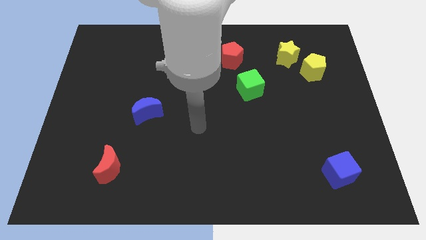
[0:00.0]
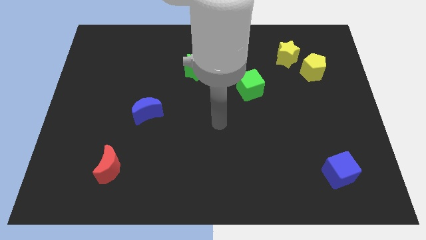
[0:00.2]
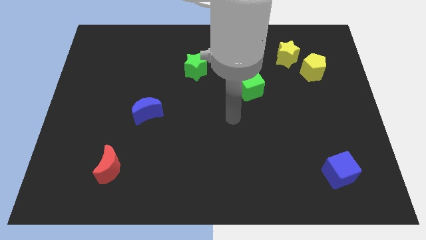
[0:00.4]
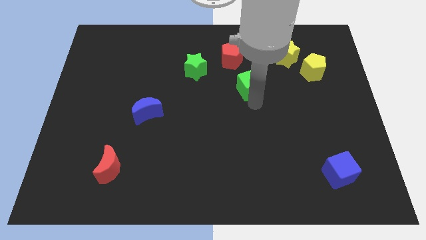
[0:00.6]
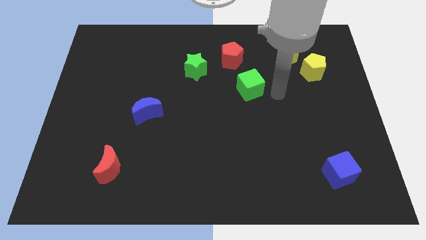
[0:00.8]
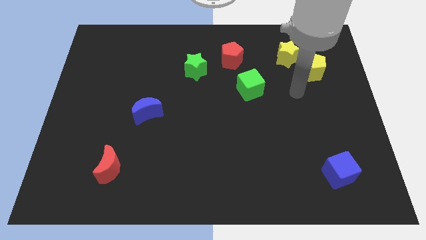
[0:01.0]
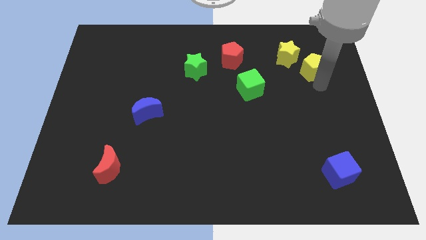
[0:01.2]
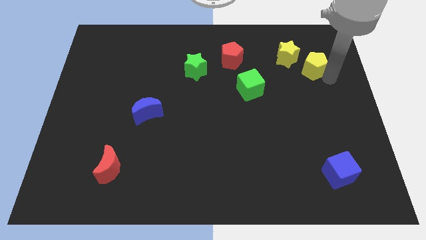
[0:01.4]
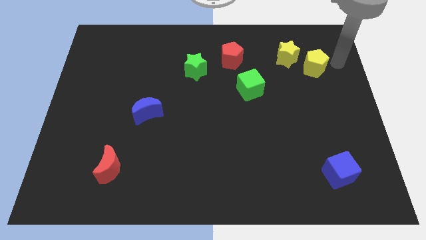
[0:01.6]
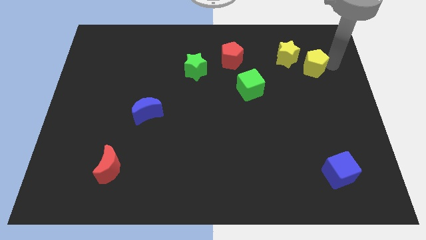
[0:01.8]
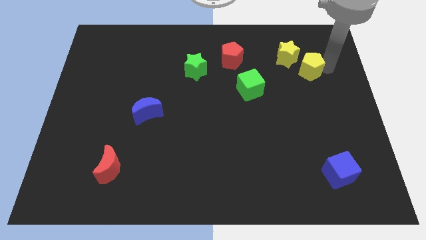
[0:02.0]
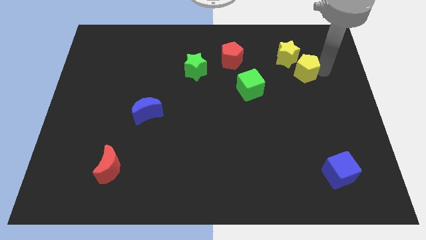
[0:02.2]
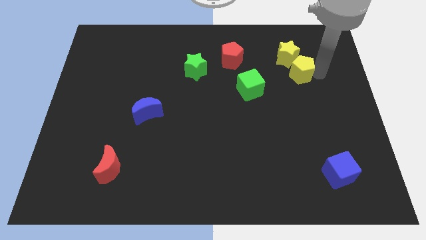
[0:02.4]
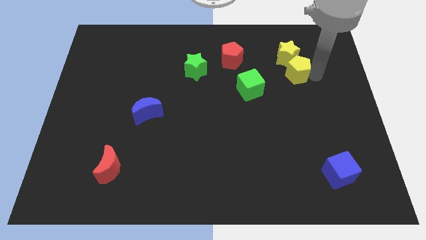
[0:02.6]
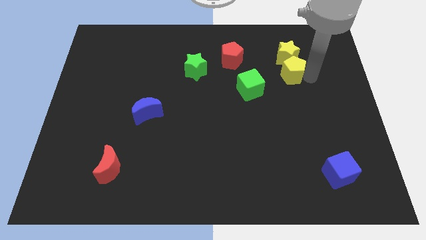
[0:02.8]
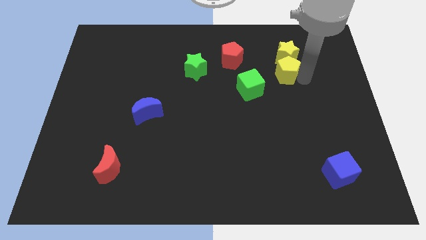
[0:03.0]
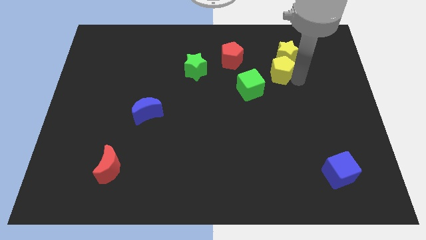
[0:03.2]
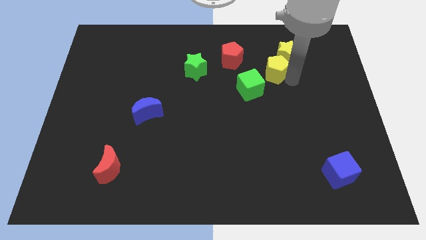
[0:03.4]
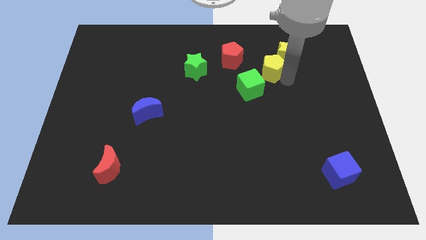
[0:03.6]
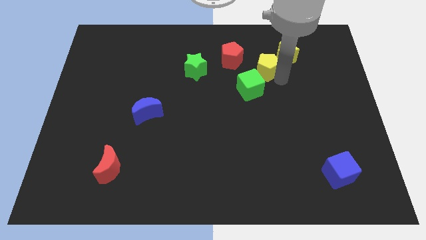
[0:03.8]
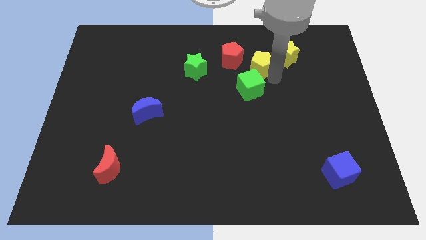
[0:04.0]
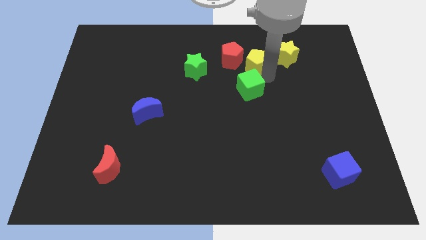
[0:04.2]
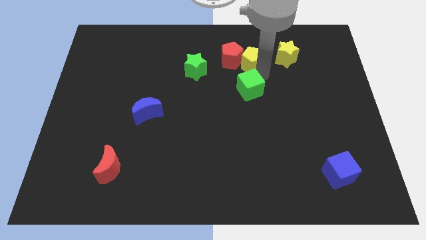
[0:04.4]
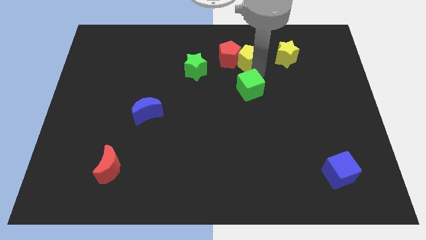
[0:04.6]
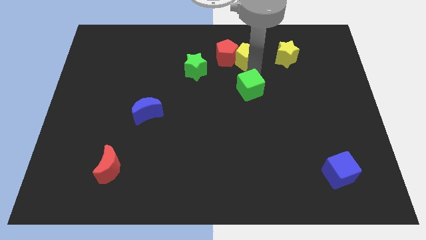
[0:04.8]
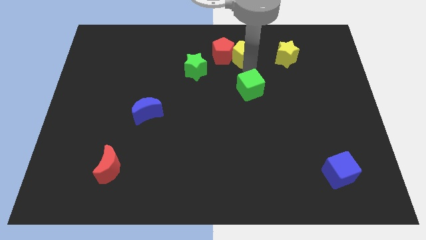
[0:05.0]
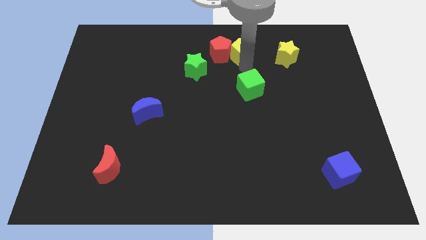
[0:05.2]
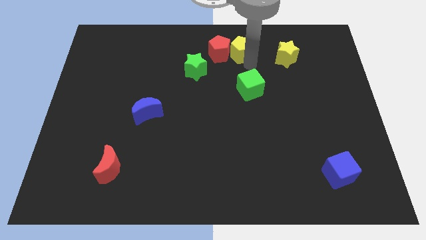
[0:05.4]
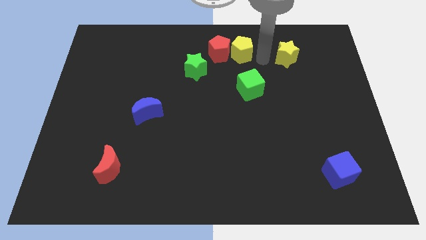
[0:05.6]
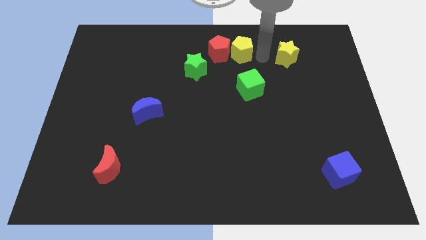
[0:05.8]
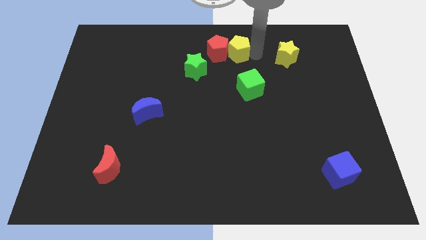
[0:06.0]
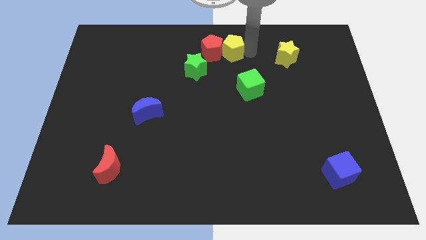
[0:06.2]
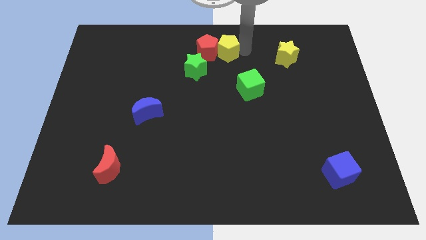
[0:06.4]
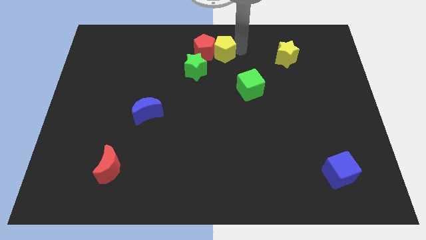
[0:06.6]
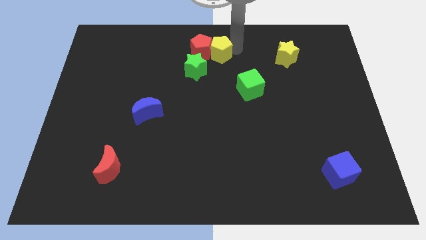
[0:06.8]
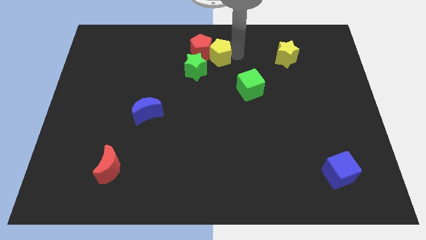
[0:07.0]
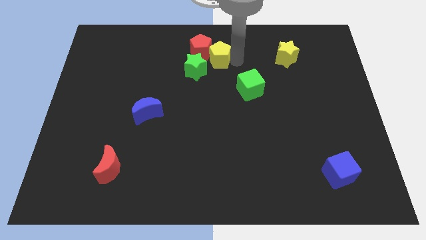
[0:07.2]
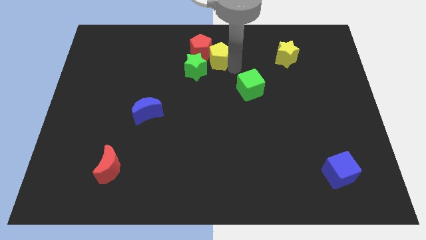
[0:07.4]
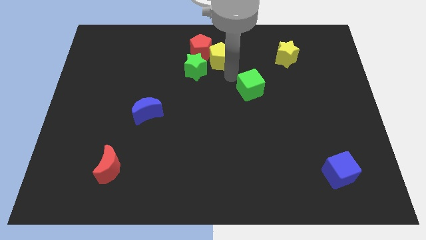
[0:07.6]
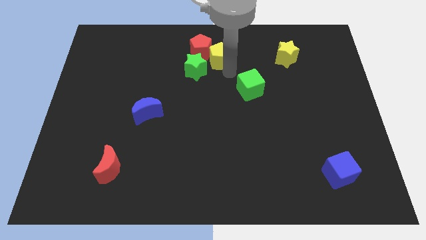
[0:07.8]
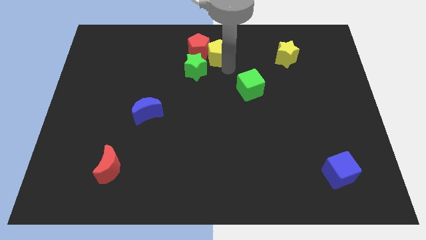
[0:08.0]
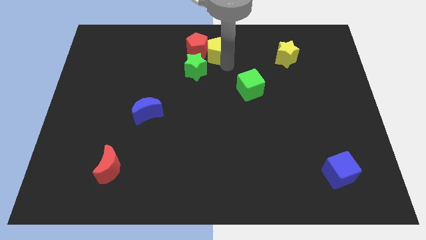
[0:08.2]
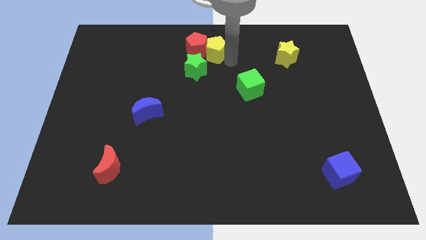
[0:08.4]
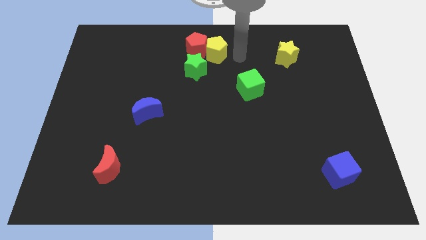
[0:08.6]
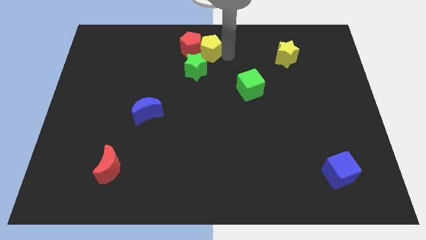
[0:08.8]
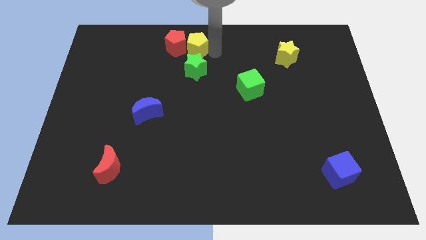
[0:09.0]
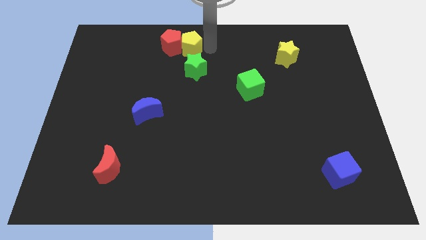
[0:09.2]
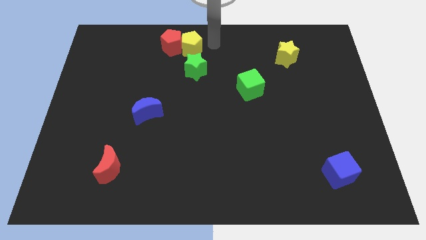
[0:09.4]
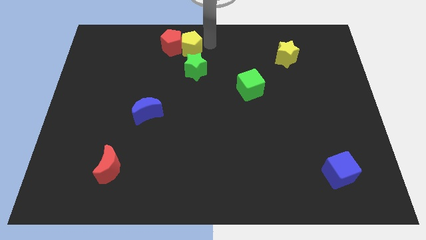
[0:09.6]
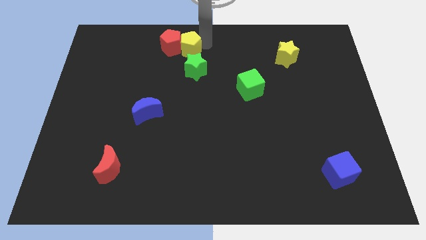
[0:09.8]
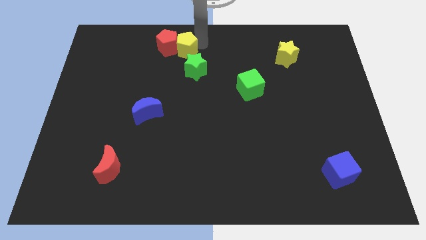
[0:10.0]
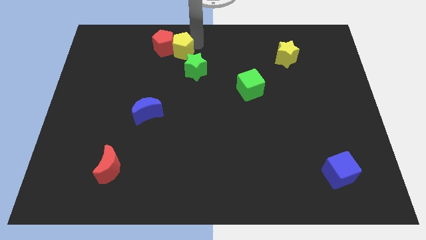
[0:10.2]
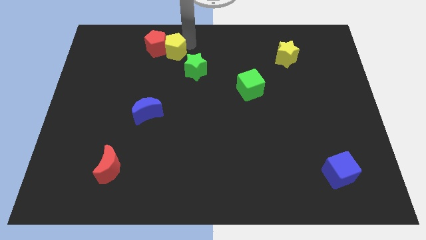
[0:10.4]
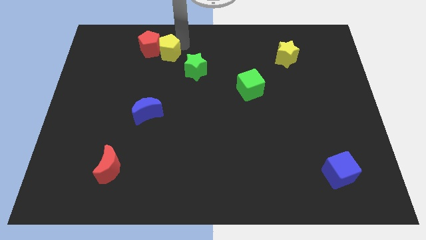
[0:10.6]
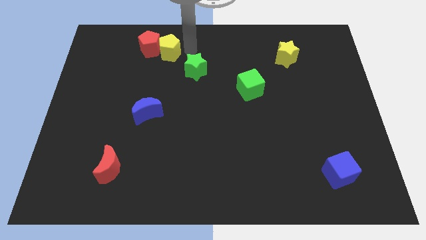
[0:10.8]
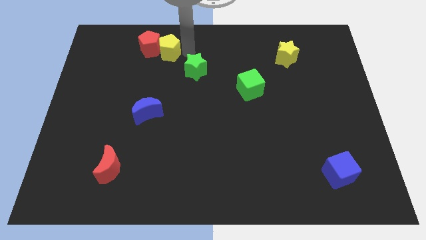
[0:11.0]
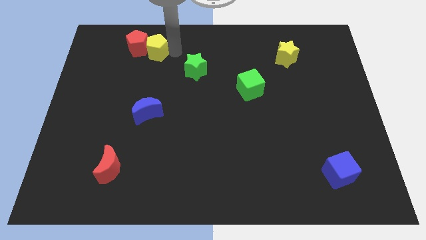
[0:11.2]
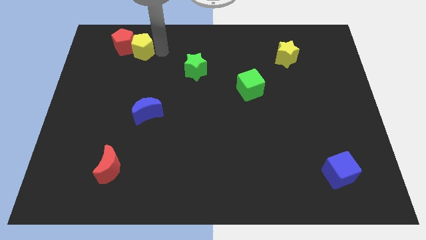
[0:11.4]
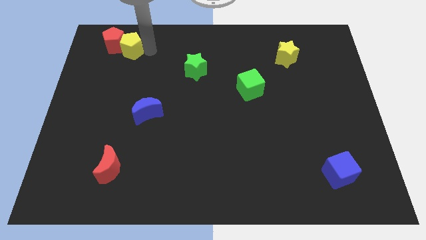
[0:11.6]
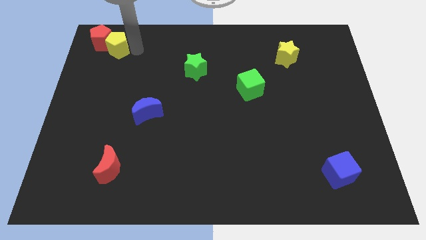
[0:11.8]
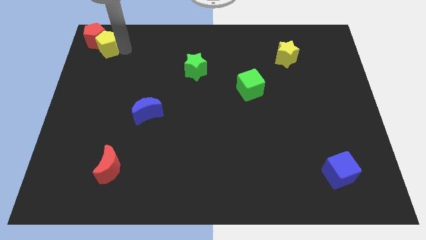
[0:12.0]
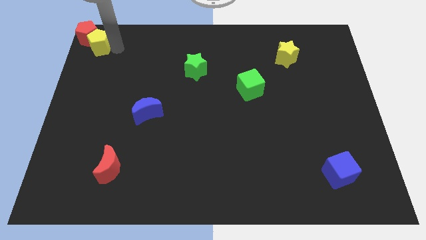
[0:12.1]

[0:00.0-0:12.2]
slide the yellow pentagon to the top left corner

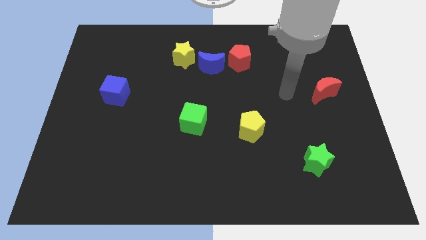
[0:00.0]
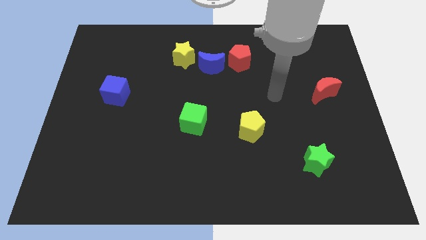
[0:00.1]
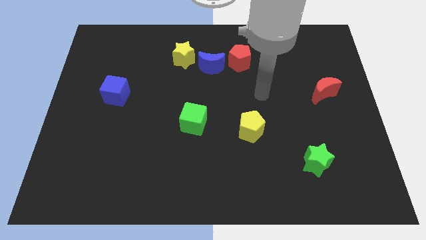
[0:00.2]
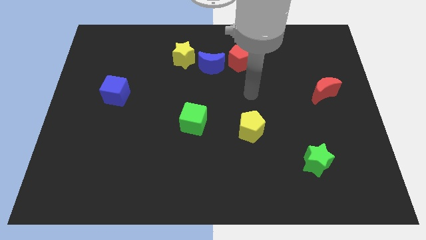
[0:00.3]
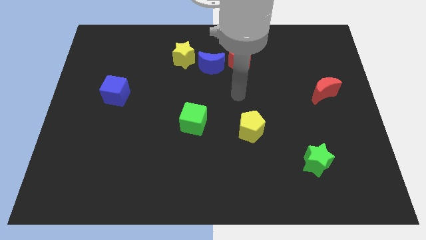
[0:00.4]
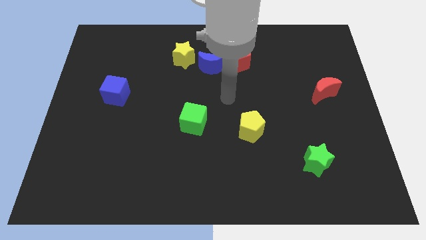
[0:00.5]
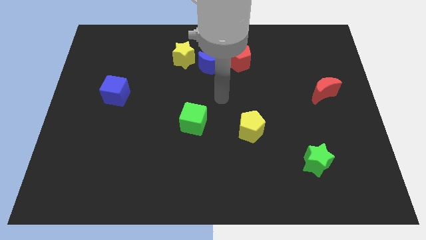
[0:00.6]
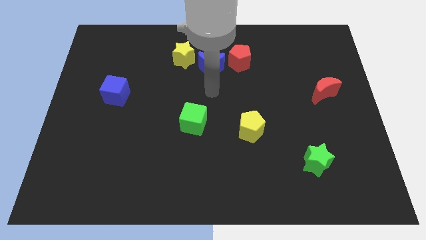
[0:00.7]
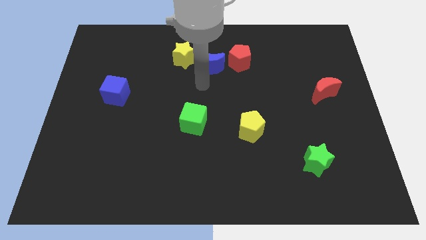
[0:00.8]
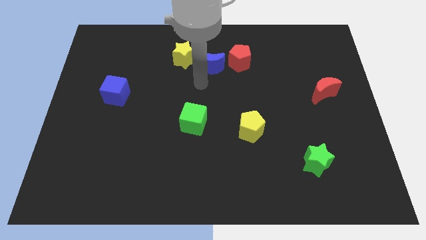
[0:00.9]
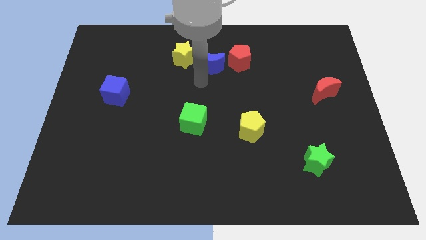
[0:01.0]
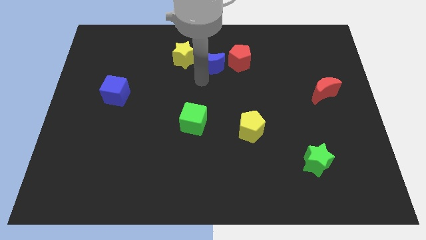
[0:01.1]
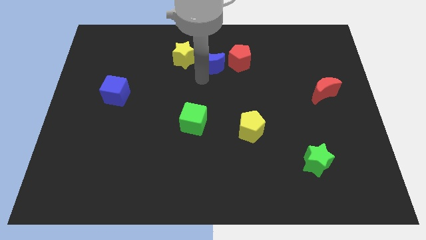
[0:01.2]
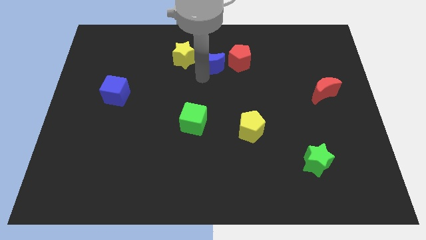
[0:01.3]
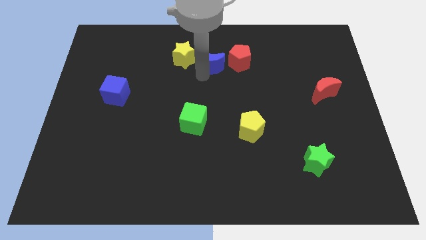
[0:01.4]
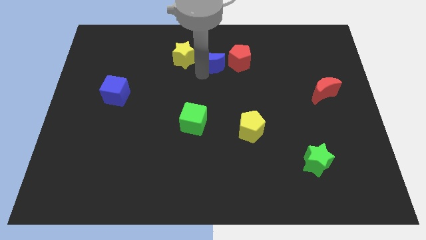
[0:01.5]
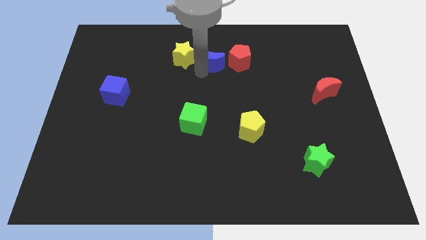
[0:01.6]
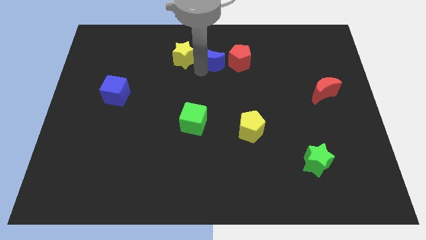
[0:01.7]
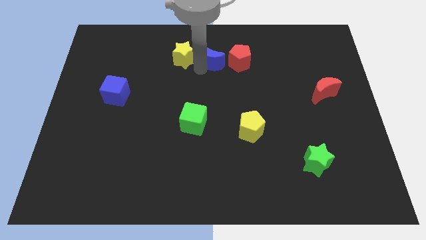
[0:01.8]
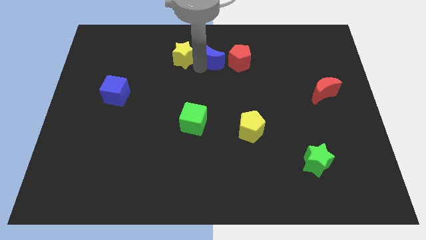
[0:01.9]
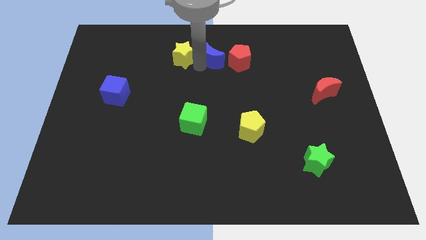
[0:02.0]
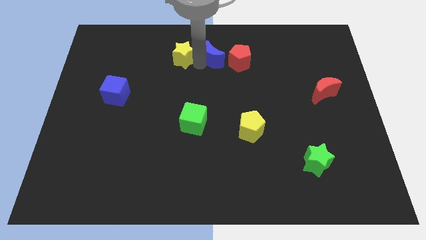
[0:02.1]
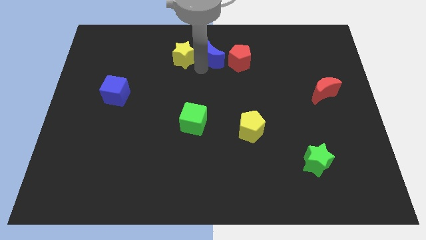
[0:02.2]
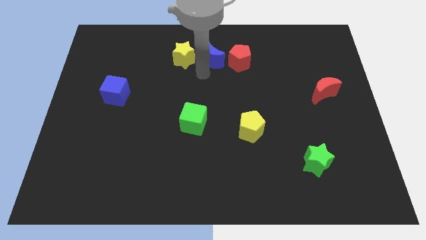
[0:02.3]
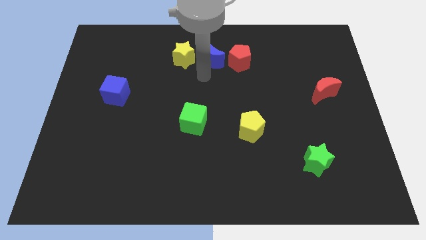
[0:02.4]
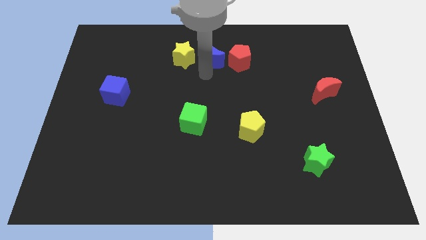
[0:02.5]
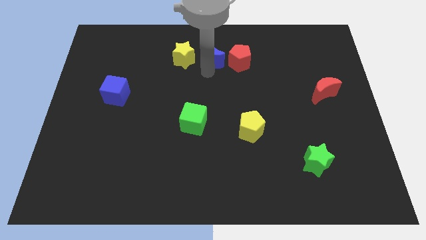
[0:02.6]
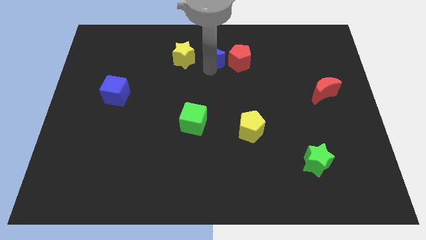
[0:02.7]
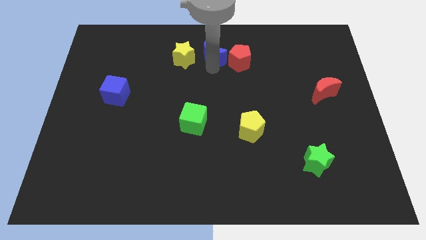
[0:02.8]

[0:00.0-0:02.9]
slide the blue moon to the top side
